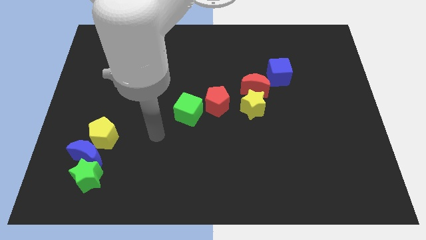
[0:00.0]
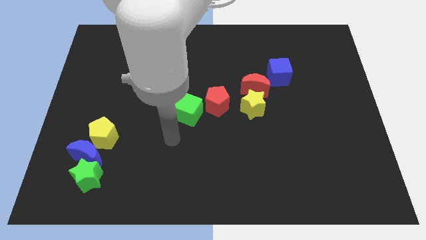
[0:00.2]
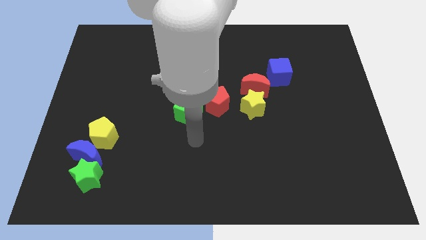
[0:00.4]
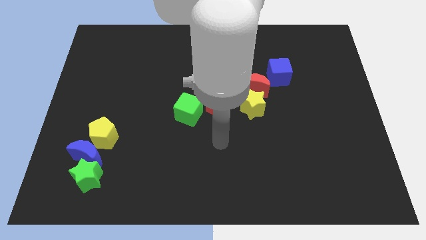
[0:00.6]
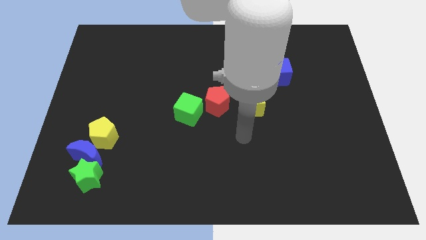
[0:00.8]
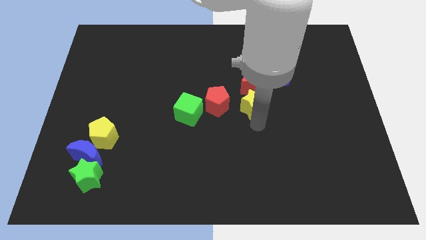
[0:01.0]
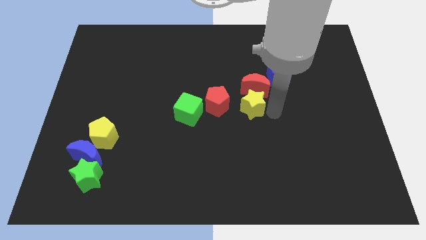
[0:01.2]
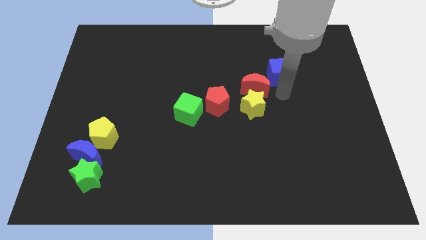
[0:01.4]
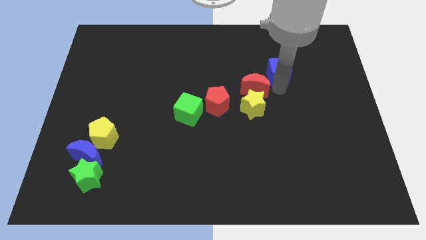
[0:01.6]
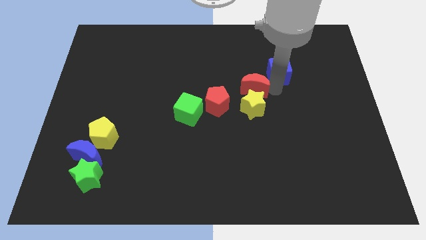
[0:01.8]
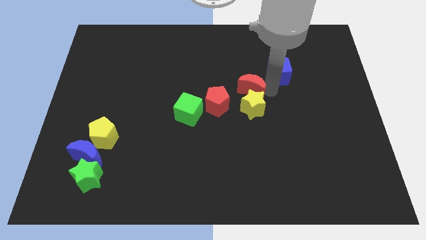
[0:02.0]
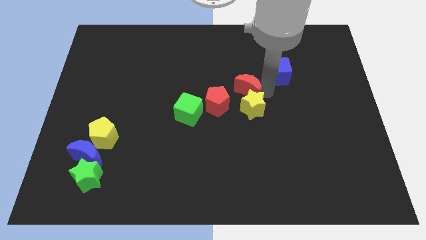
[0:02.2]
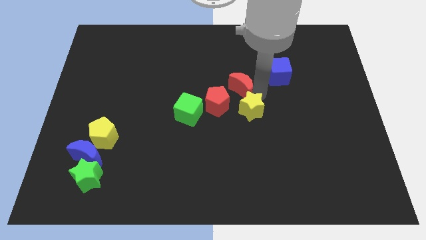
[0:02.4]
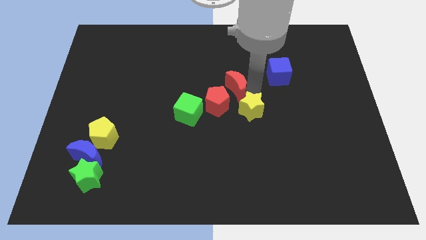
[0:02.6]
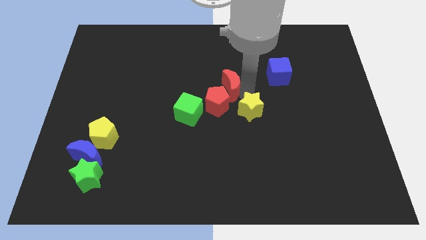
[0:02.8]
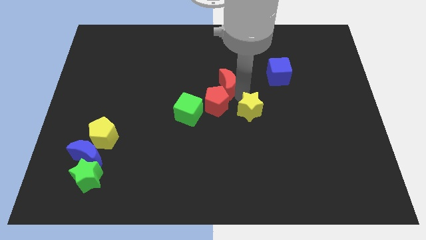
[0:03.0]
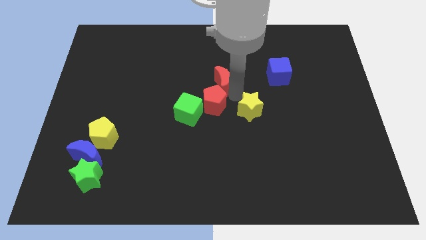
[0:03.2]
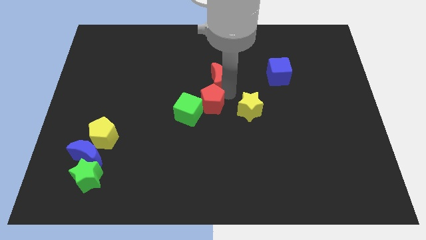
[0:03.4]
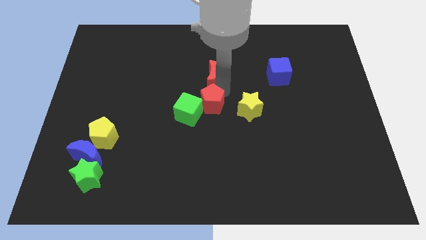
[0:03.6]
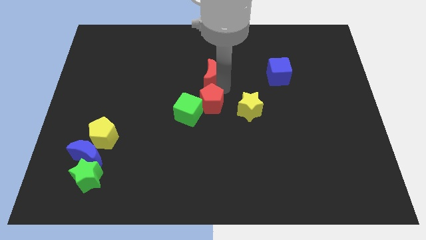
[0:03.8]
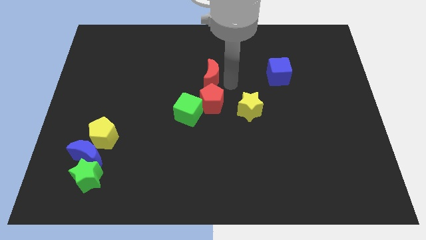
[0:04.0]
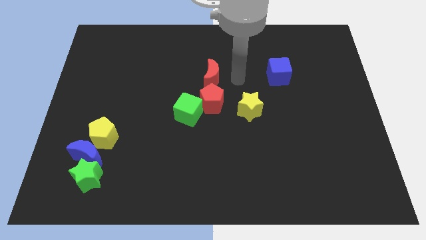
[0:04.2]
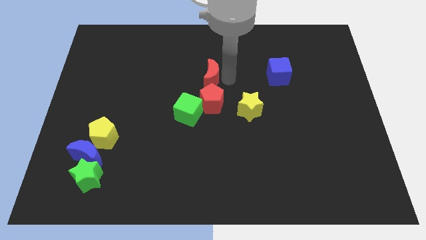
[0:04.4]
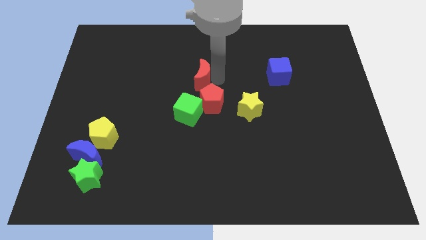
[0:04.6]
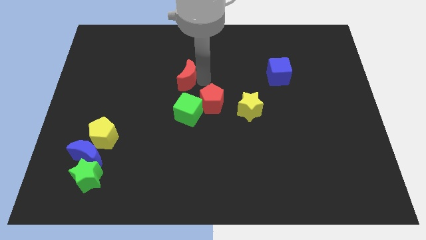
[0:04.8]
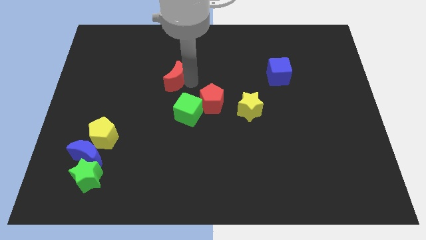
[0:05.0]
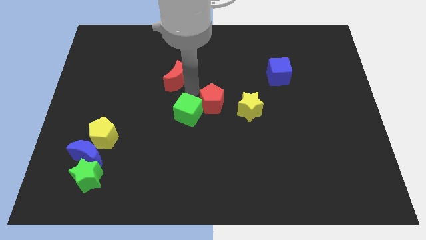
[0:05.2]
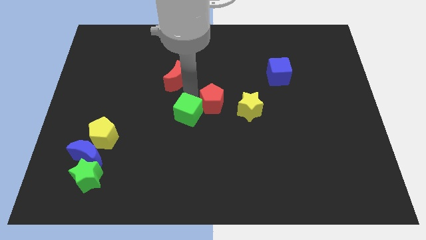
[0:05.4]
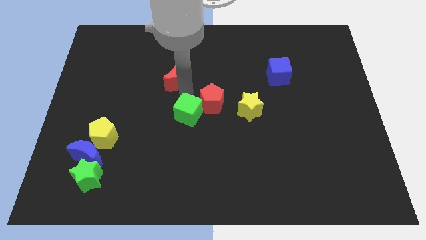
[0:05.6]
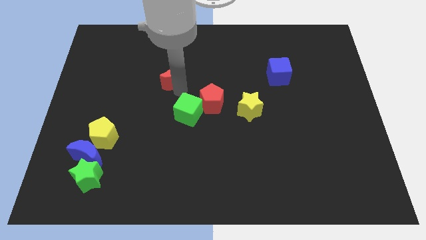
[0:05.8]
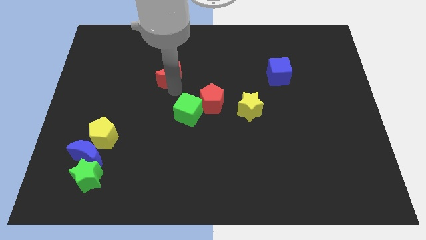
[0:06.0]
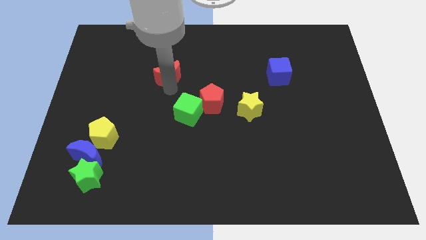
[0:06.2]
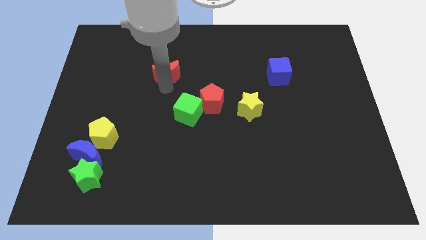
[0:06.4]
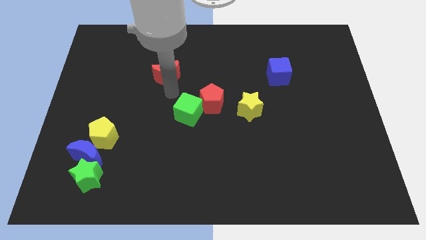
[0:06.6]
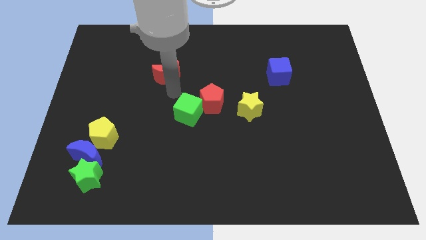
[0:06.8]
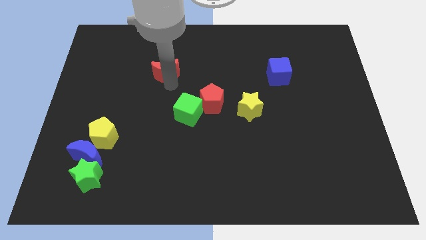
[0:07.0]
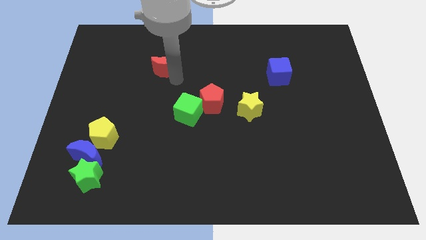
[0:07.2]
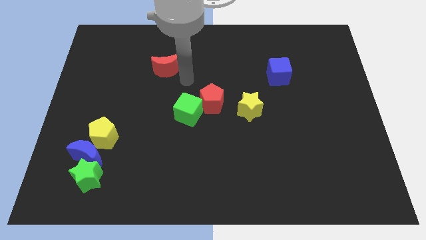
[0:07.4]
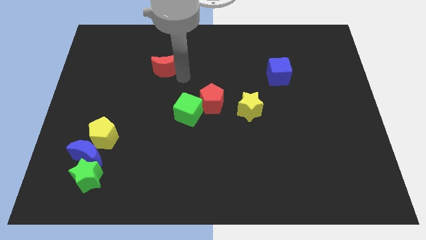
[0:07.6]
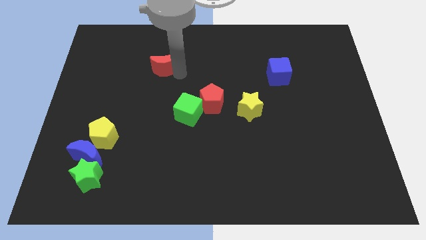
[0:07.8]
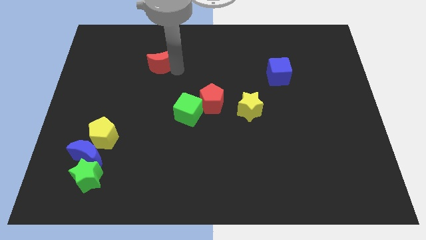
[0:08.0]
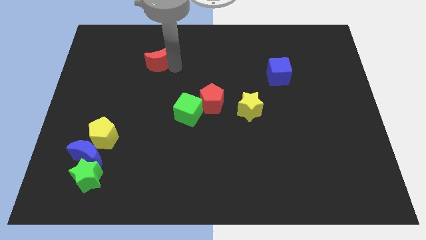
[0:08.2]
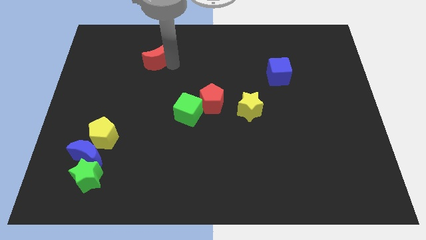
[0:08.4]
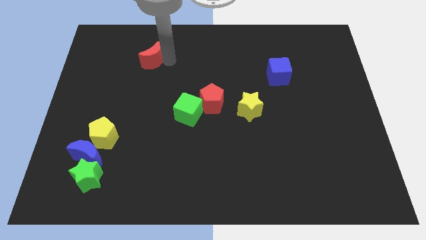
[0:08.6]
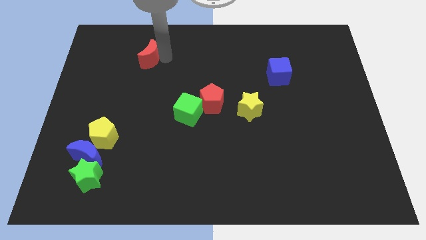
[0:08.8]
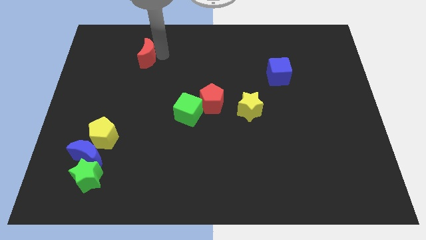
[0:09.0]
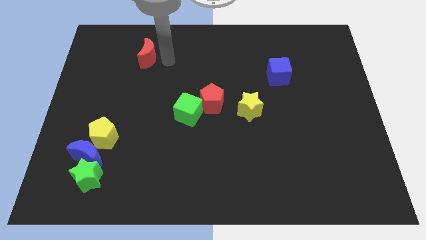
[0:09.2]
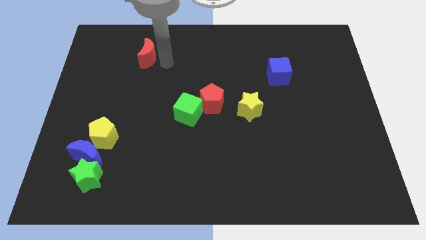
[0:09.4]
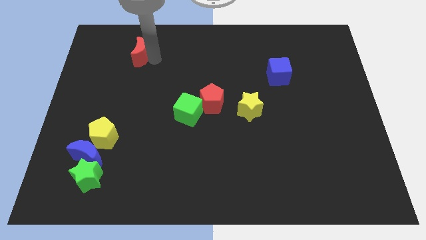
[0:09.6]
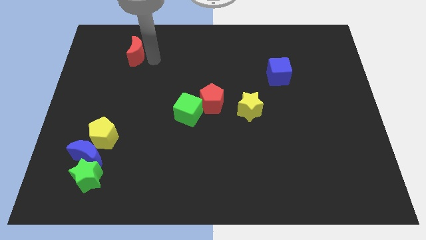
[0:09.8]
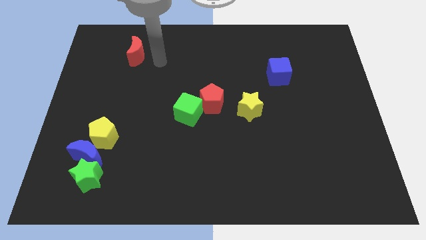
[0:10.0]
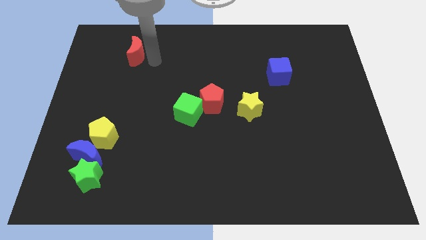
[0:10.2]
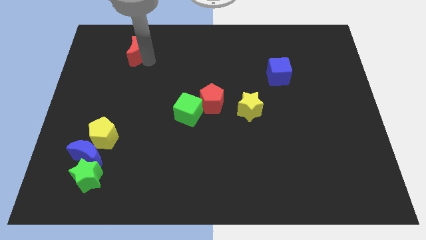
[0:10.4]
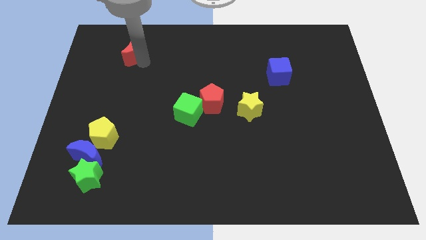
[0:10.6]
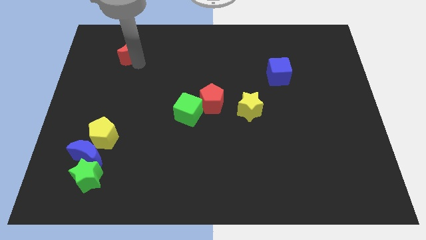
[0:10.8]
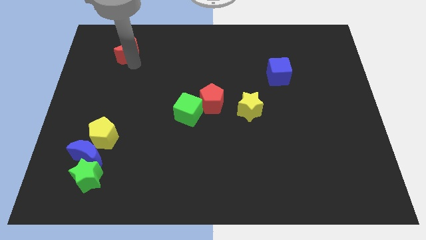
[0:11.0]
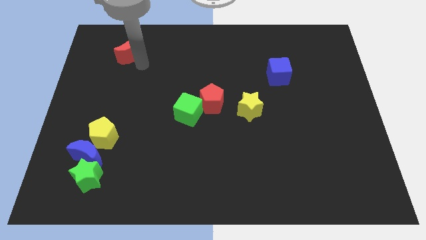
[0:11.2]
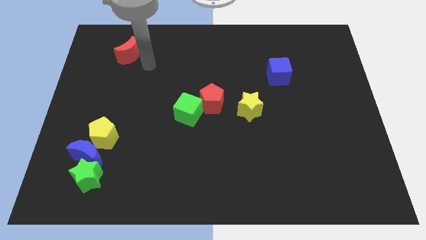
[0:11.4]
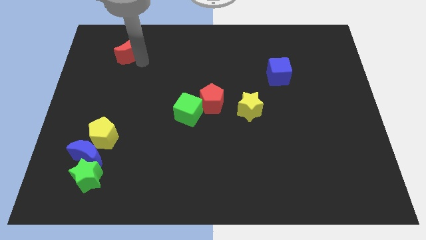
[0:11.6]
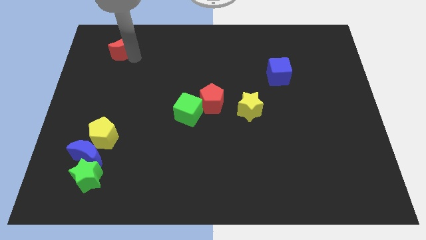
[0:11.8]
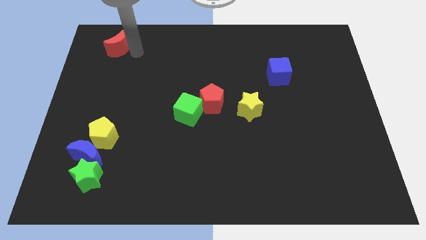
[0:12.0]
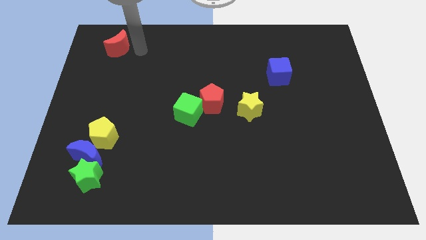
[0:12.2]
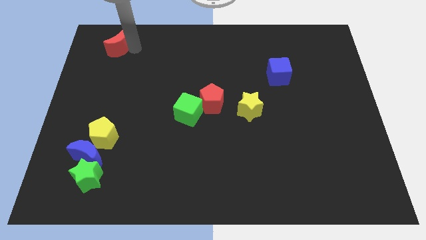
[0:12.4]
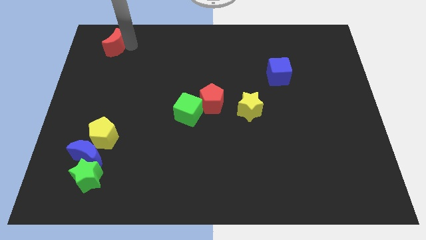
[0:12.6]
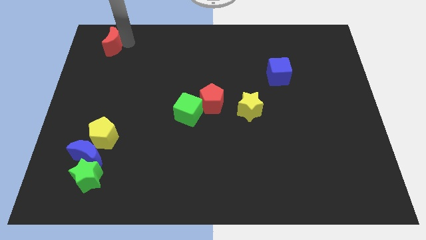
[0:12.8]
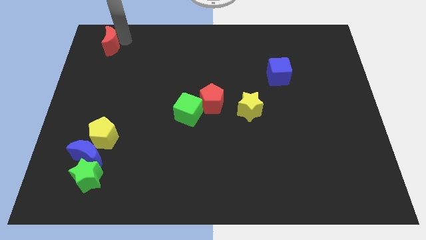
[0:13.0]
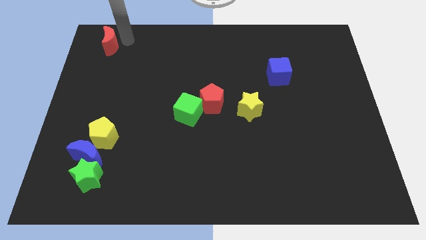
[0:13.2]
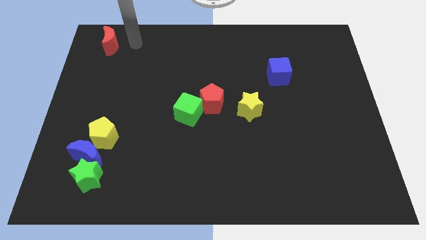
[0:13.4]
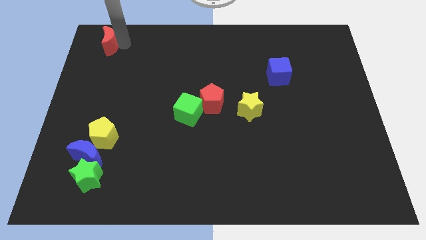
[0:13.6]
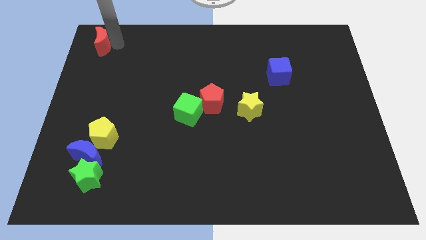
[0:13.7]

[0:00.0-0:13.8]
put the red moon to the top left of the board
